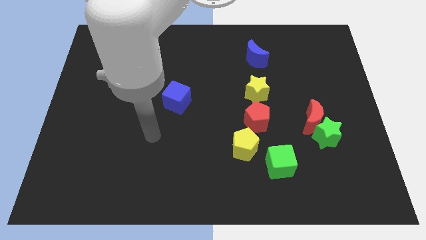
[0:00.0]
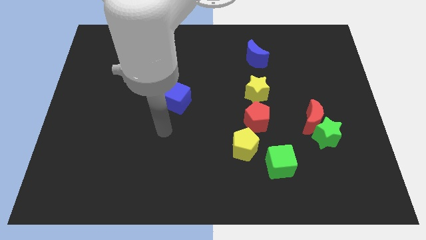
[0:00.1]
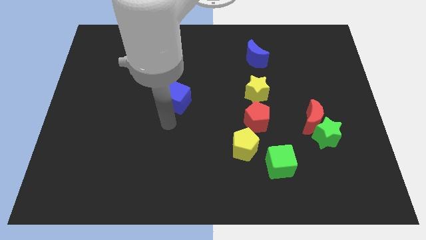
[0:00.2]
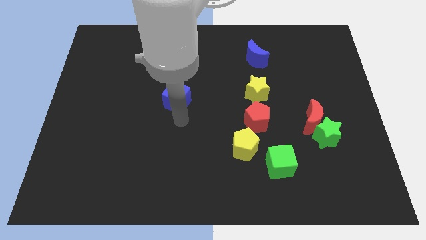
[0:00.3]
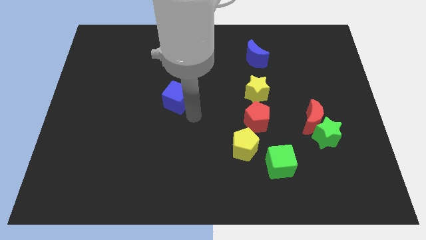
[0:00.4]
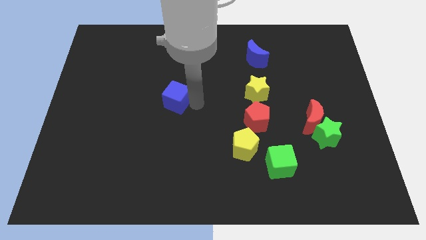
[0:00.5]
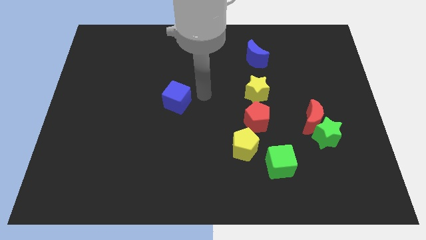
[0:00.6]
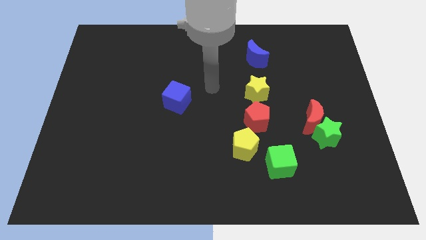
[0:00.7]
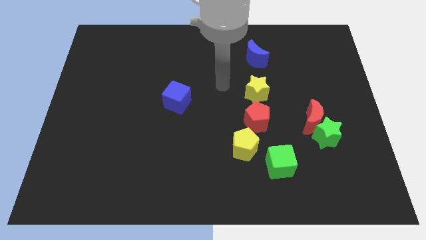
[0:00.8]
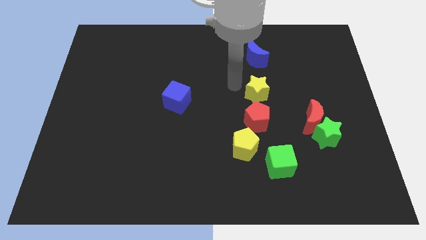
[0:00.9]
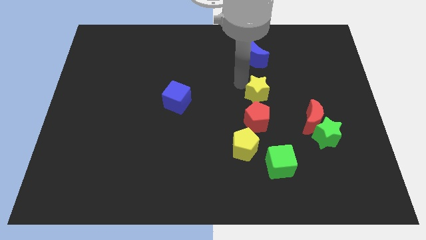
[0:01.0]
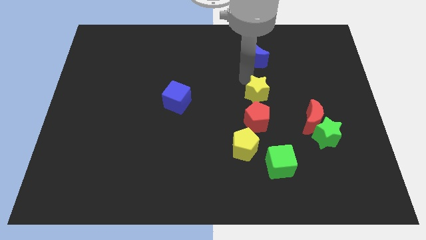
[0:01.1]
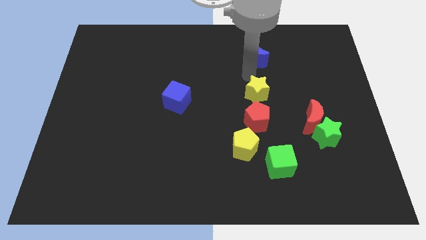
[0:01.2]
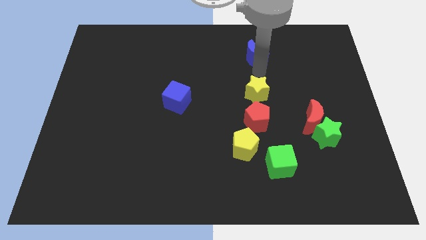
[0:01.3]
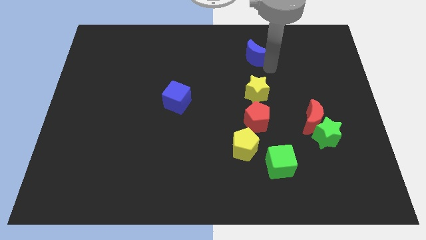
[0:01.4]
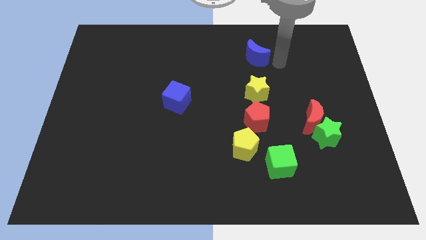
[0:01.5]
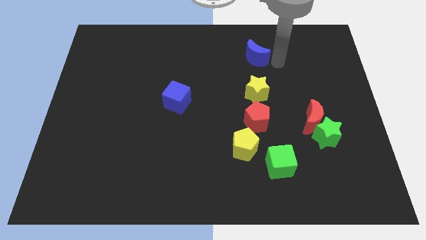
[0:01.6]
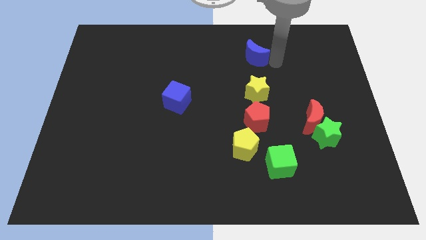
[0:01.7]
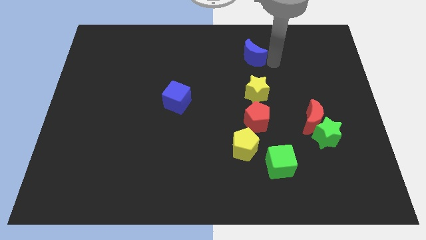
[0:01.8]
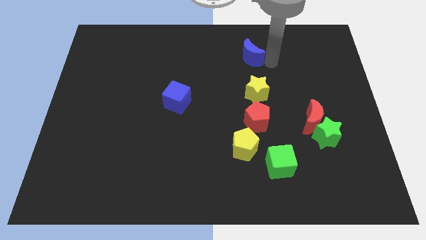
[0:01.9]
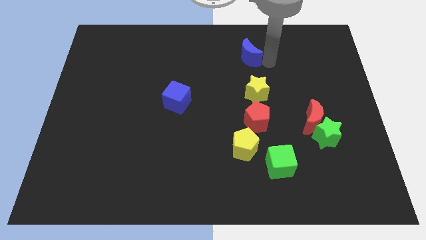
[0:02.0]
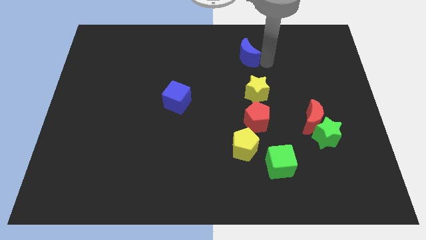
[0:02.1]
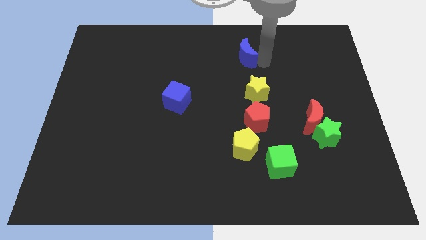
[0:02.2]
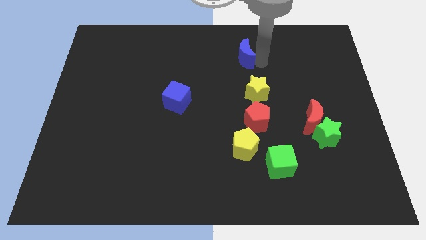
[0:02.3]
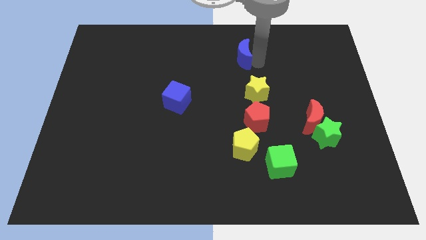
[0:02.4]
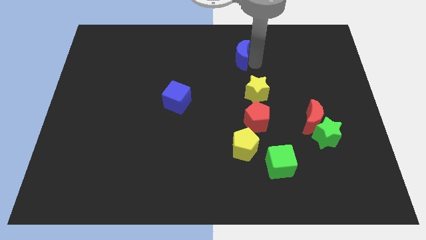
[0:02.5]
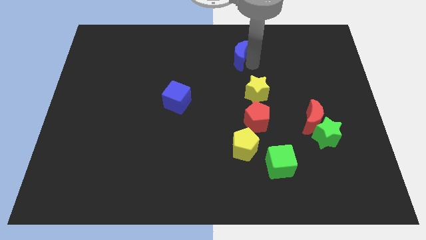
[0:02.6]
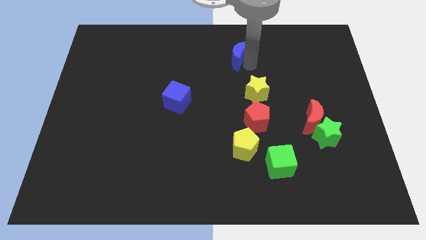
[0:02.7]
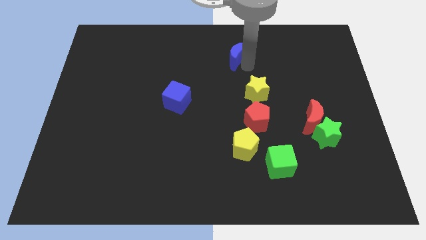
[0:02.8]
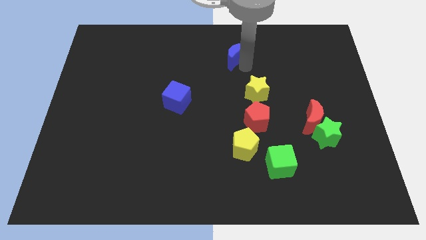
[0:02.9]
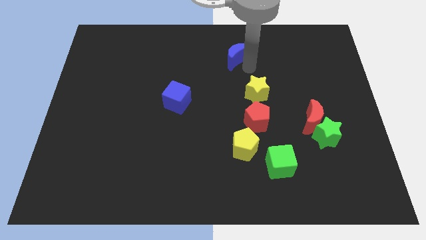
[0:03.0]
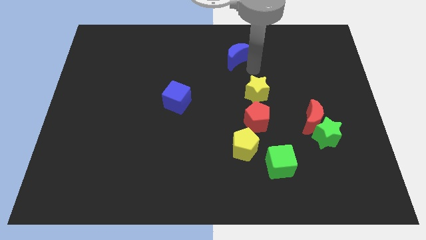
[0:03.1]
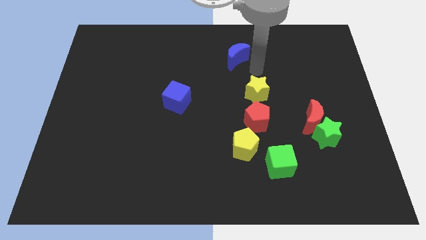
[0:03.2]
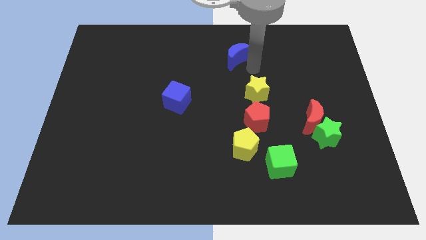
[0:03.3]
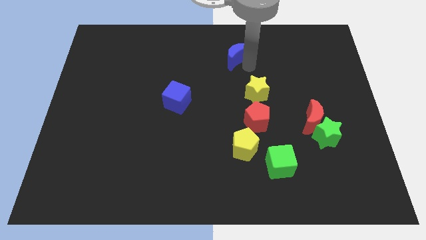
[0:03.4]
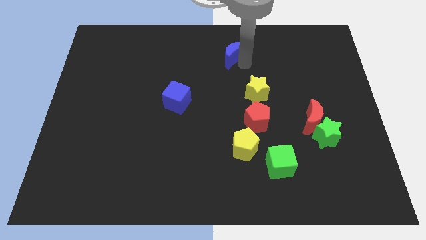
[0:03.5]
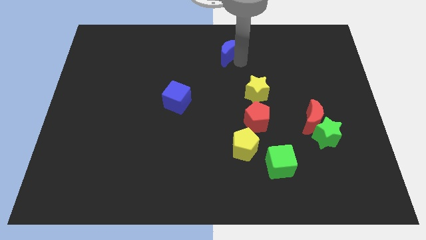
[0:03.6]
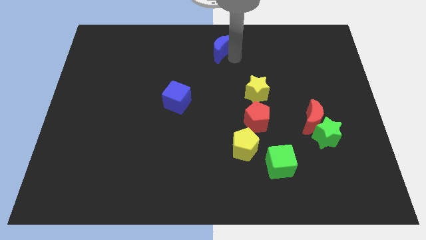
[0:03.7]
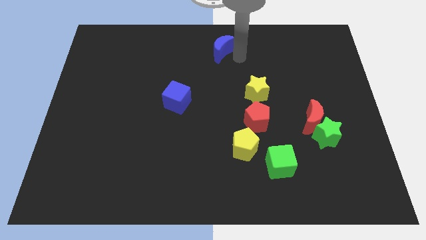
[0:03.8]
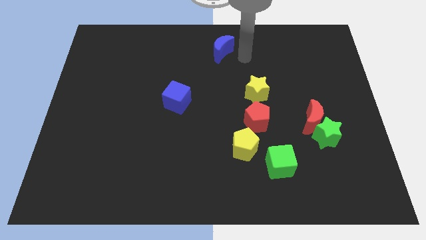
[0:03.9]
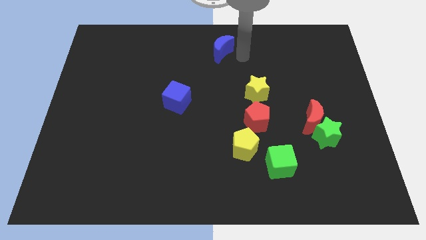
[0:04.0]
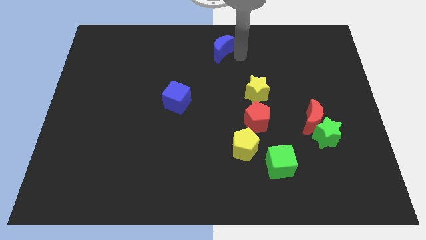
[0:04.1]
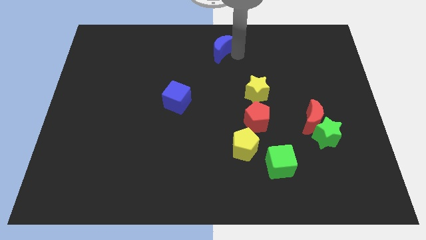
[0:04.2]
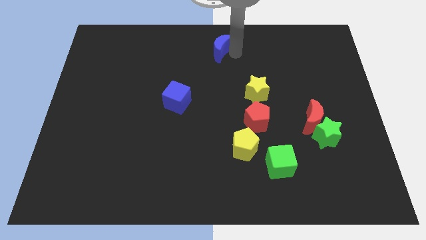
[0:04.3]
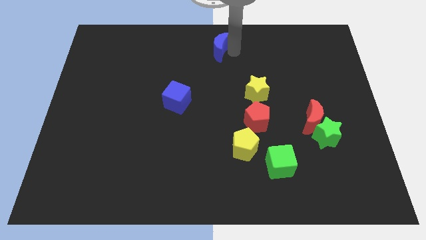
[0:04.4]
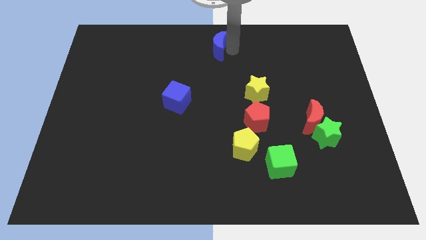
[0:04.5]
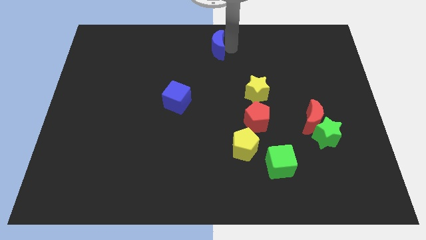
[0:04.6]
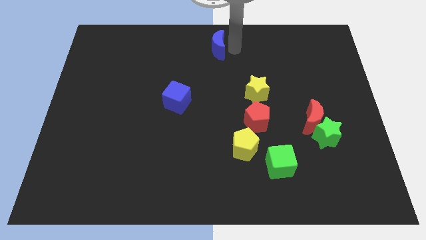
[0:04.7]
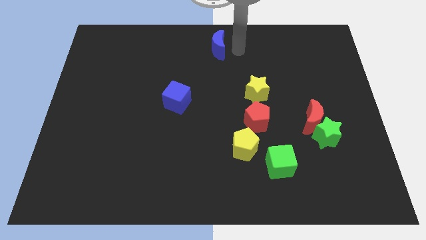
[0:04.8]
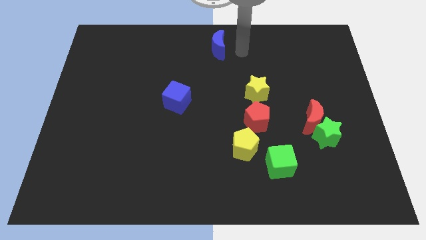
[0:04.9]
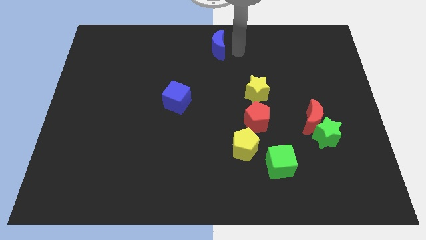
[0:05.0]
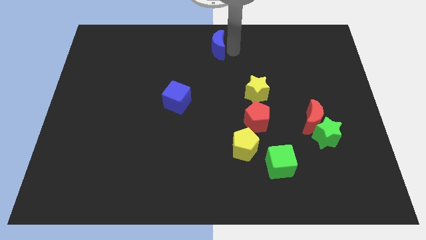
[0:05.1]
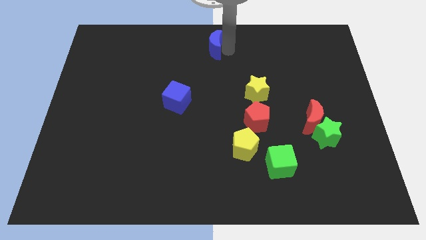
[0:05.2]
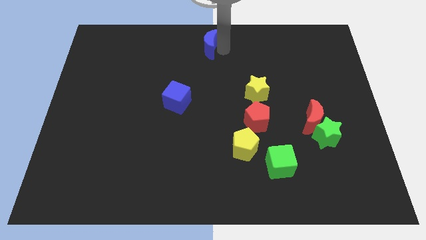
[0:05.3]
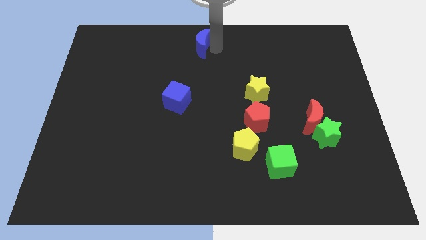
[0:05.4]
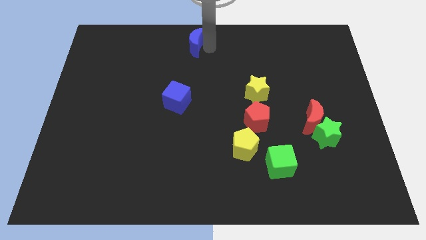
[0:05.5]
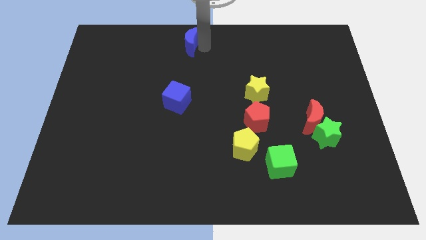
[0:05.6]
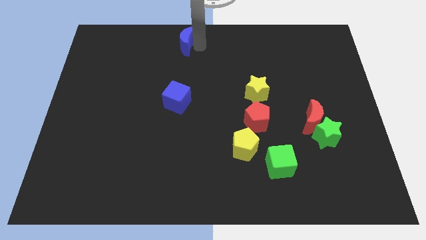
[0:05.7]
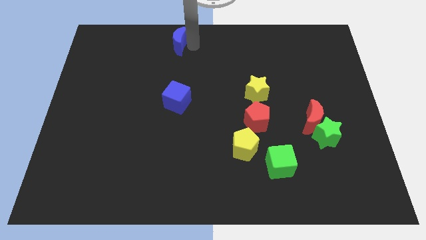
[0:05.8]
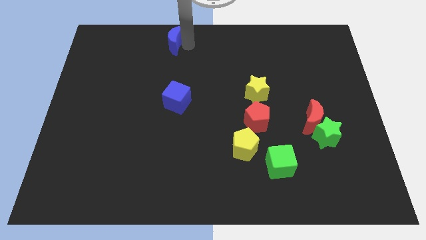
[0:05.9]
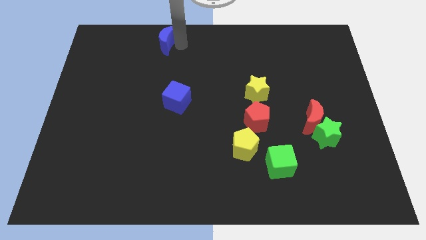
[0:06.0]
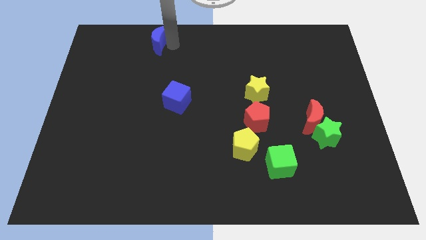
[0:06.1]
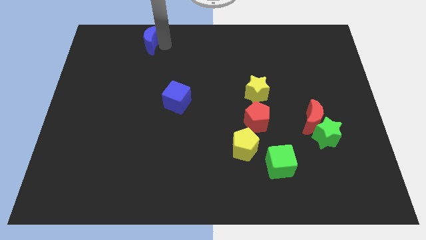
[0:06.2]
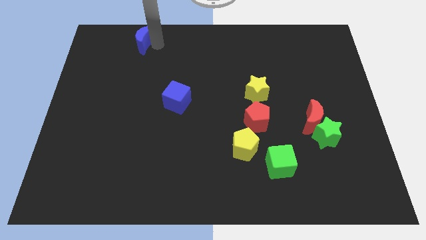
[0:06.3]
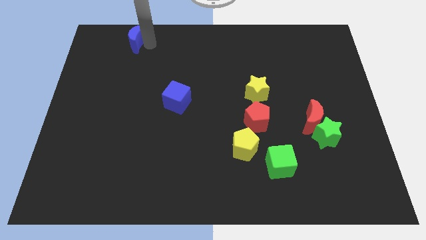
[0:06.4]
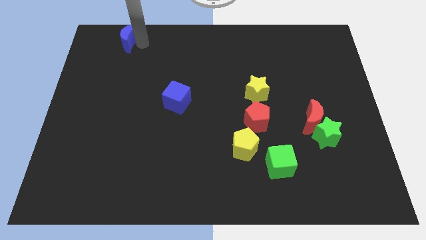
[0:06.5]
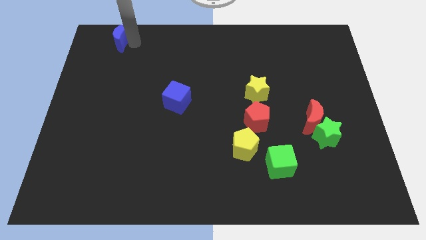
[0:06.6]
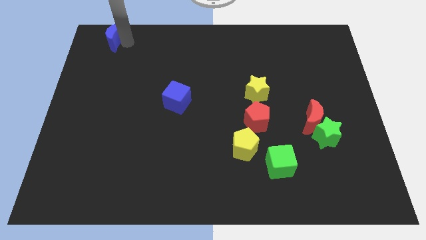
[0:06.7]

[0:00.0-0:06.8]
put the blue moon to the top left of the board

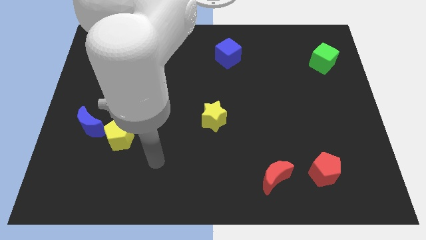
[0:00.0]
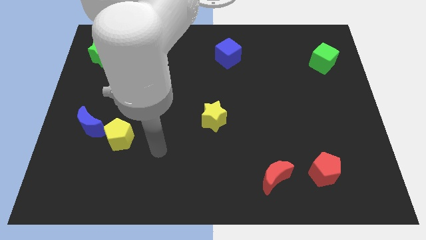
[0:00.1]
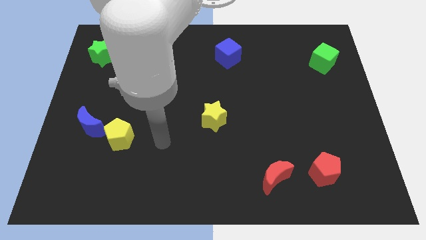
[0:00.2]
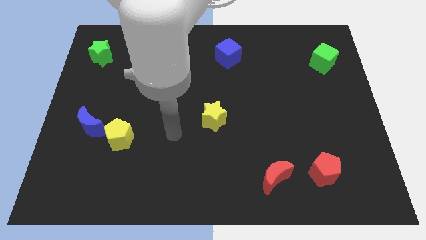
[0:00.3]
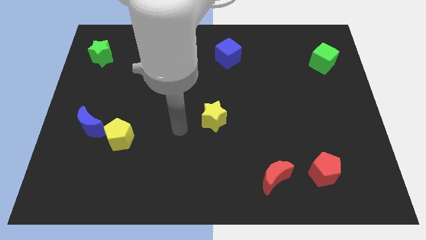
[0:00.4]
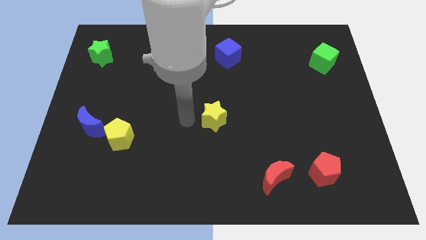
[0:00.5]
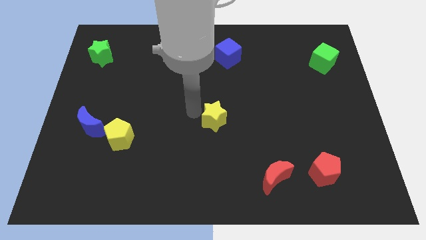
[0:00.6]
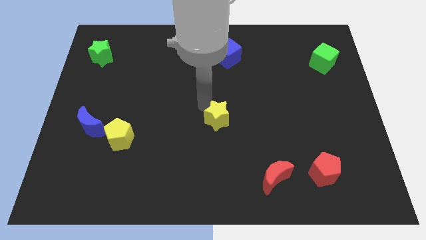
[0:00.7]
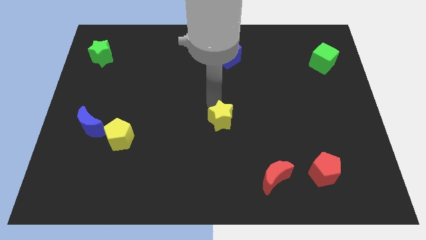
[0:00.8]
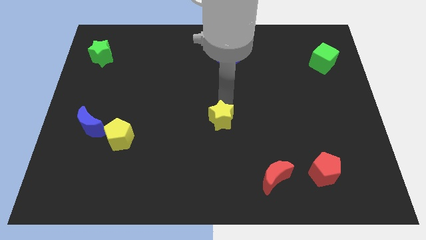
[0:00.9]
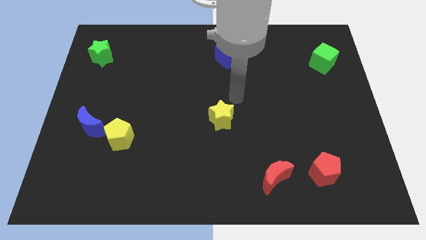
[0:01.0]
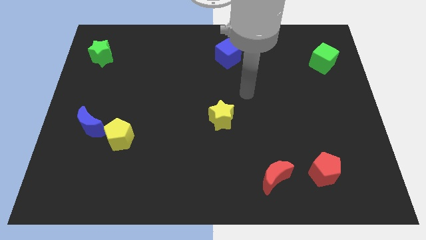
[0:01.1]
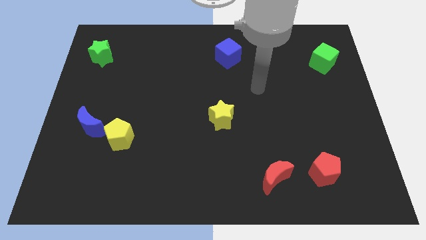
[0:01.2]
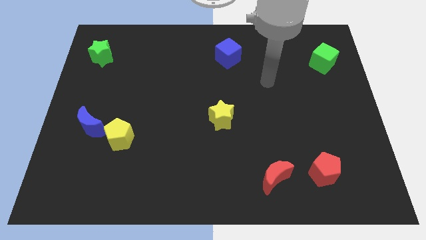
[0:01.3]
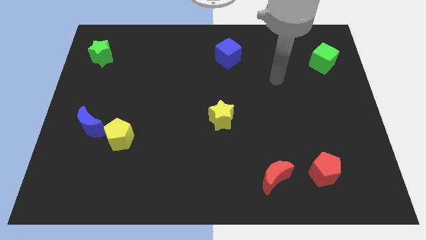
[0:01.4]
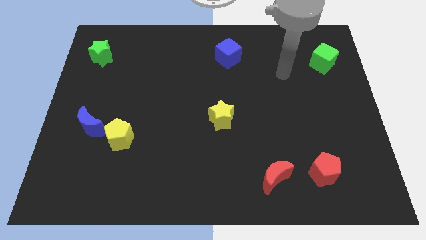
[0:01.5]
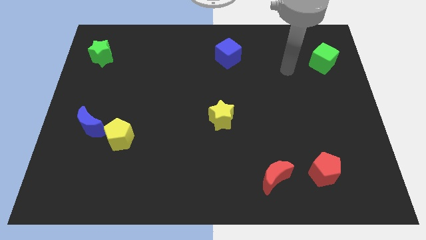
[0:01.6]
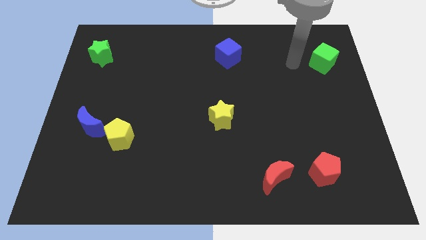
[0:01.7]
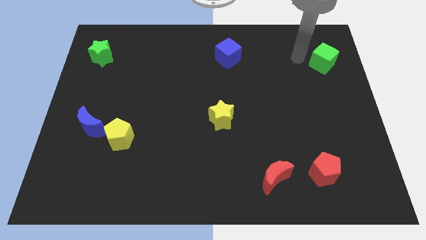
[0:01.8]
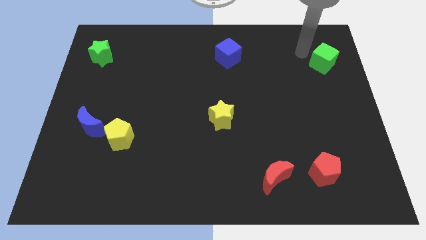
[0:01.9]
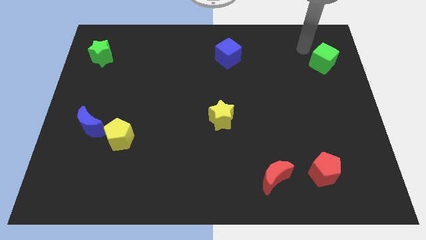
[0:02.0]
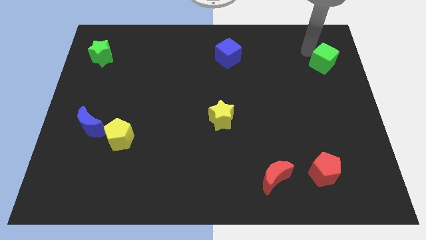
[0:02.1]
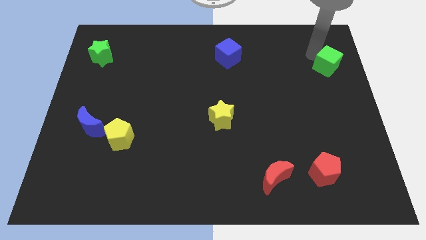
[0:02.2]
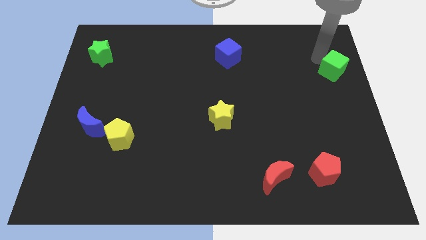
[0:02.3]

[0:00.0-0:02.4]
put the green cube to the right side
